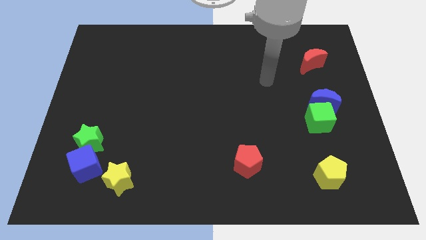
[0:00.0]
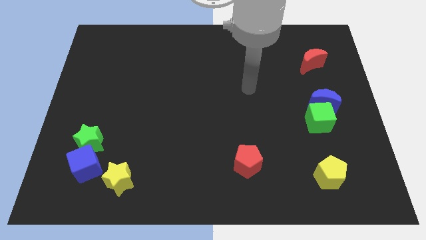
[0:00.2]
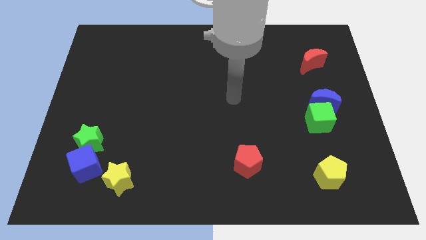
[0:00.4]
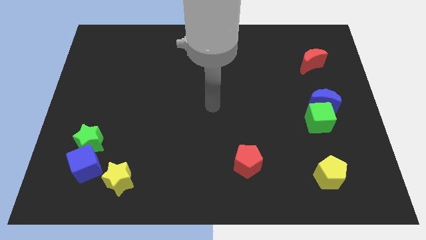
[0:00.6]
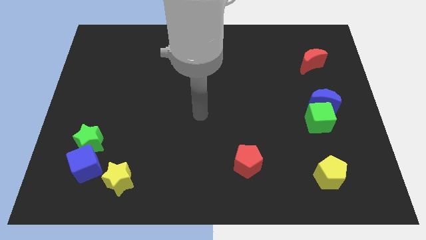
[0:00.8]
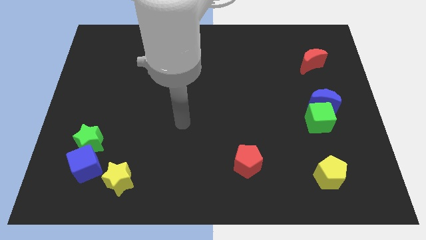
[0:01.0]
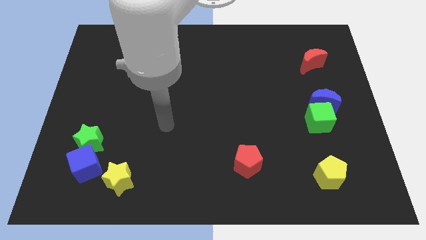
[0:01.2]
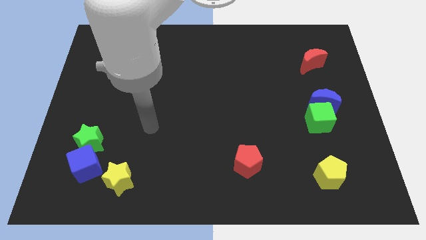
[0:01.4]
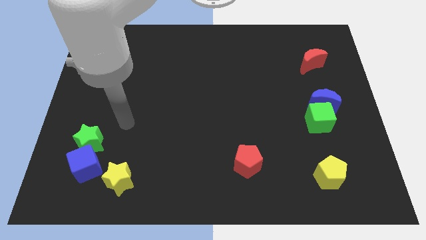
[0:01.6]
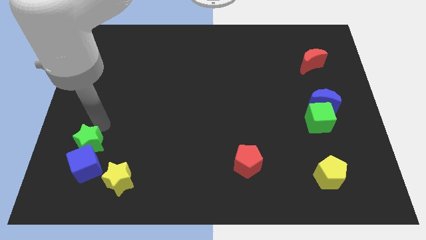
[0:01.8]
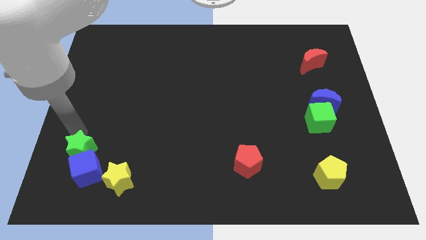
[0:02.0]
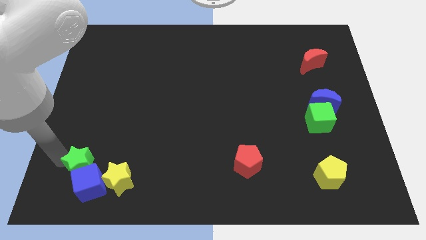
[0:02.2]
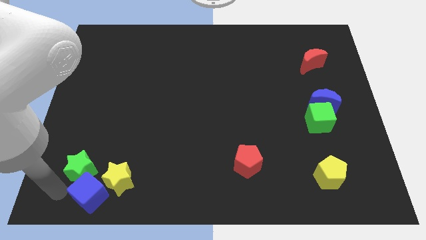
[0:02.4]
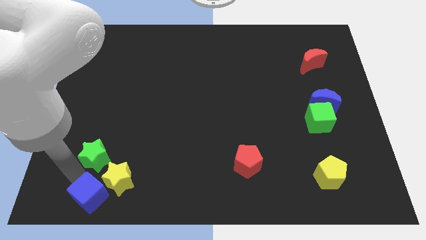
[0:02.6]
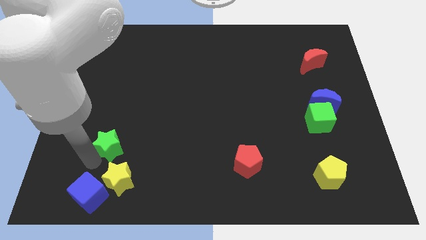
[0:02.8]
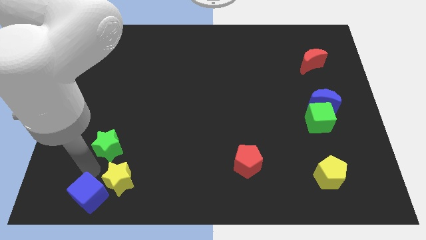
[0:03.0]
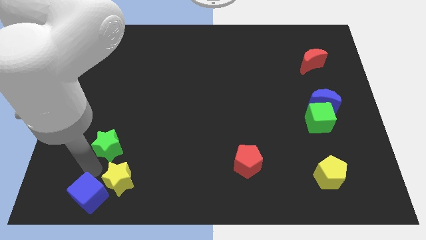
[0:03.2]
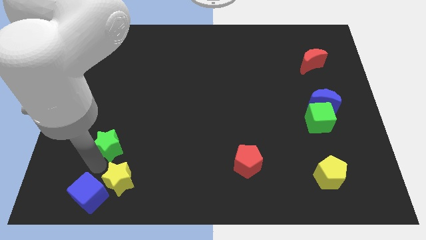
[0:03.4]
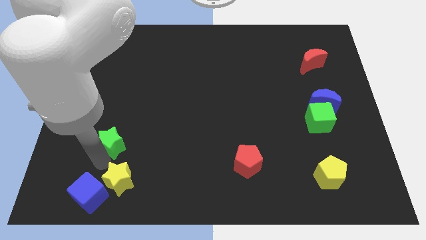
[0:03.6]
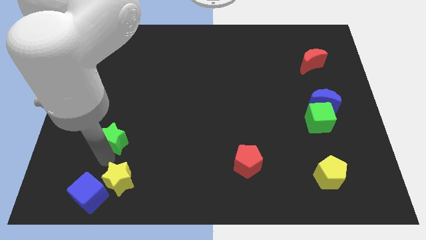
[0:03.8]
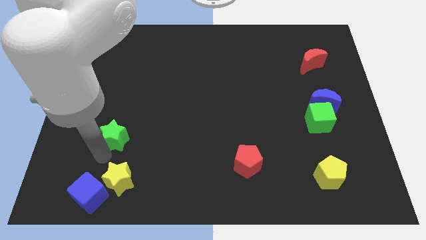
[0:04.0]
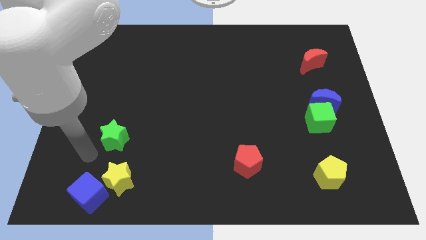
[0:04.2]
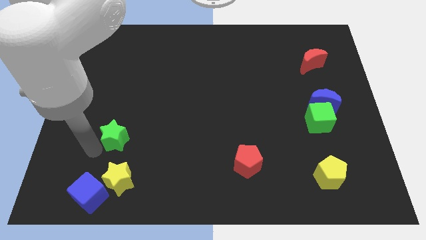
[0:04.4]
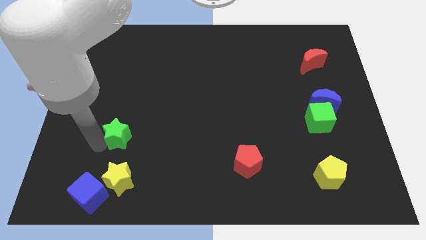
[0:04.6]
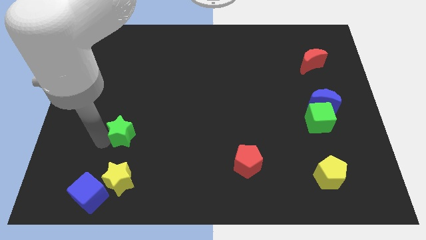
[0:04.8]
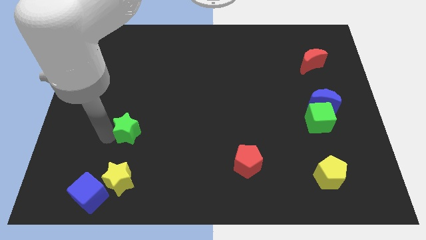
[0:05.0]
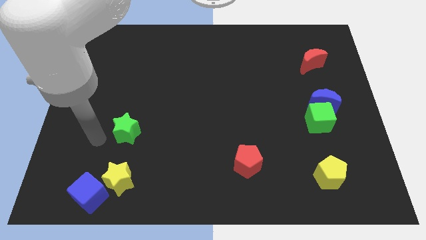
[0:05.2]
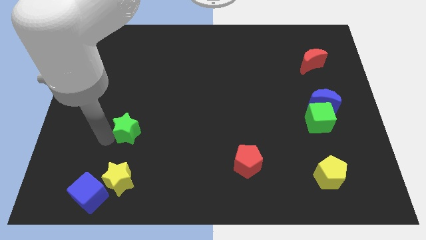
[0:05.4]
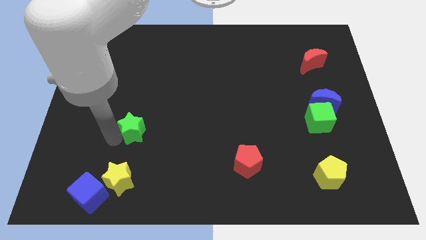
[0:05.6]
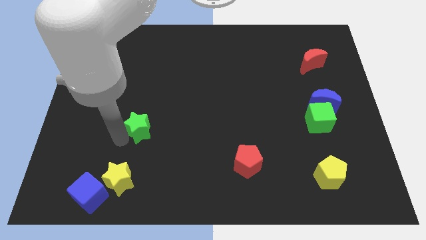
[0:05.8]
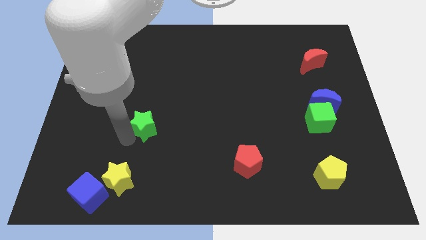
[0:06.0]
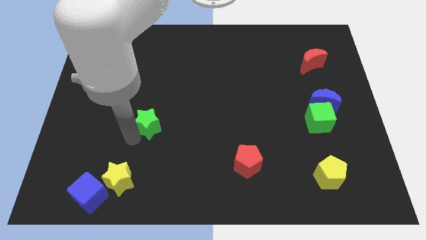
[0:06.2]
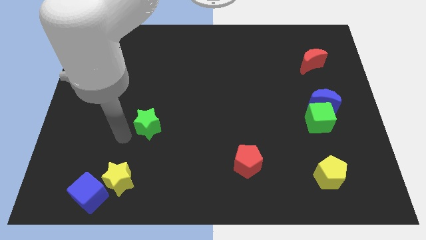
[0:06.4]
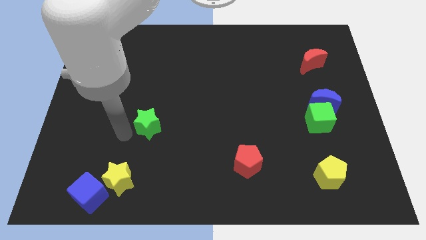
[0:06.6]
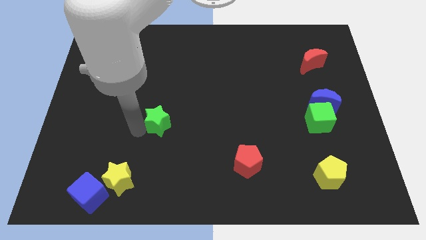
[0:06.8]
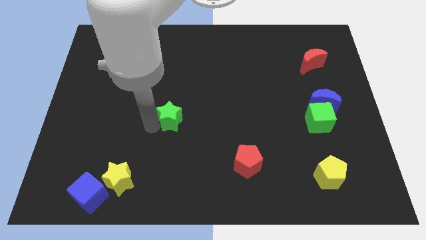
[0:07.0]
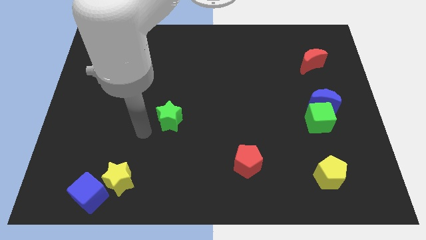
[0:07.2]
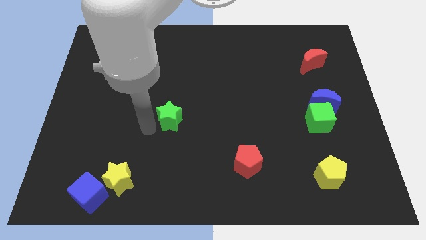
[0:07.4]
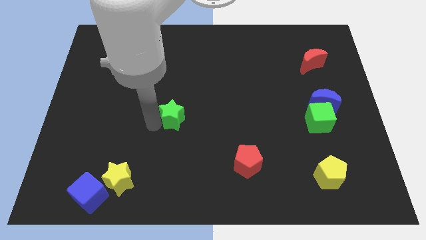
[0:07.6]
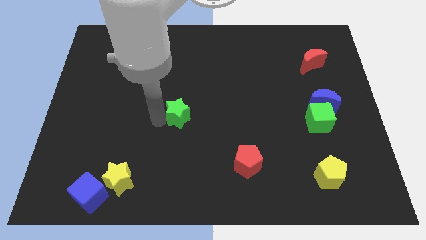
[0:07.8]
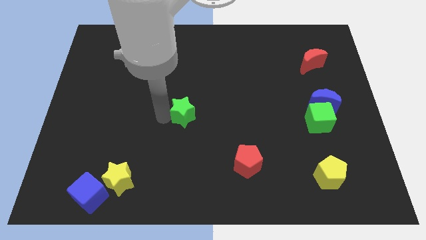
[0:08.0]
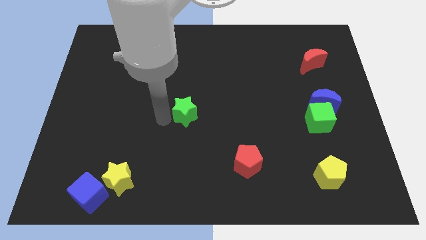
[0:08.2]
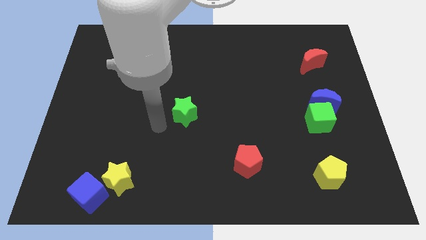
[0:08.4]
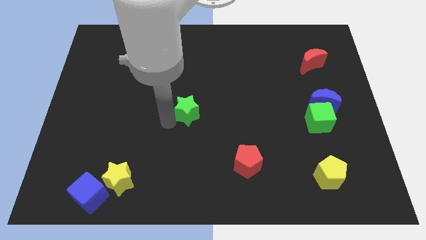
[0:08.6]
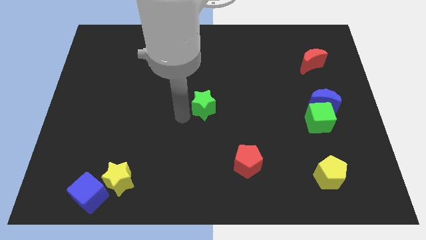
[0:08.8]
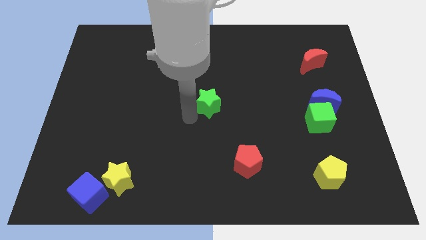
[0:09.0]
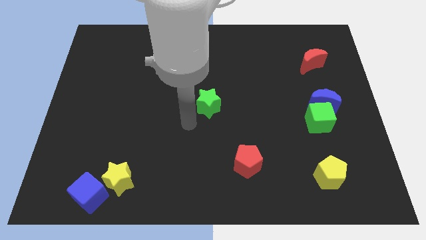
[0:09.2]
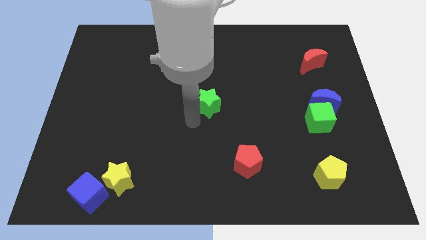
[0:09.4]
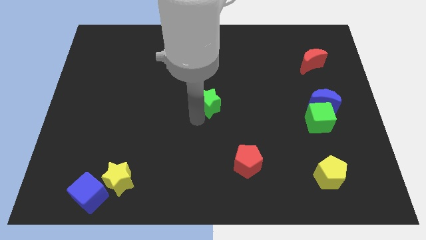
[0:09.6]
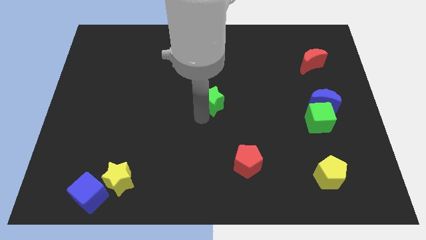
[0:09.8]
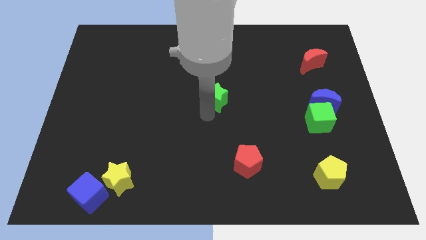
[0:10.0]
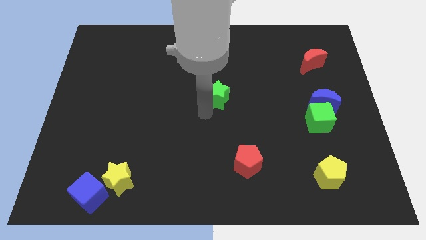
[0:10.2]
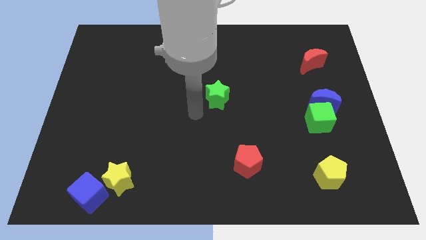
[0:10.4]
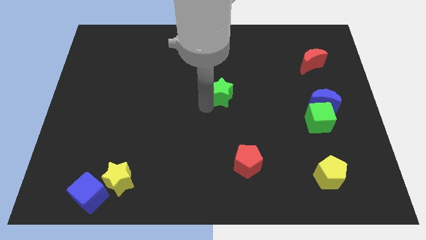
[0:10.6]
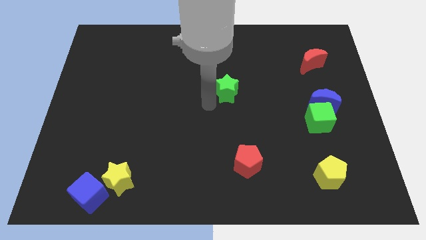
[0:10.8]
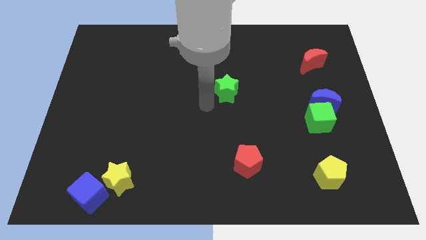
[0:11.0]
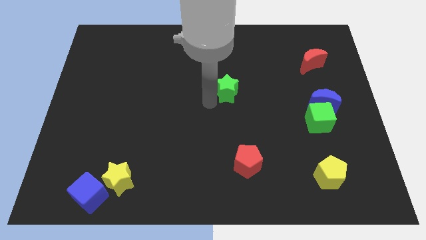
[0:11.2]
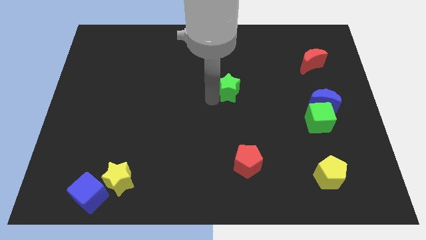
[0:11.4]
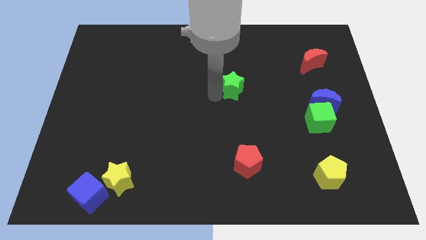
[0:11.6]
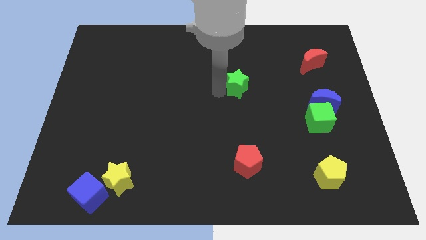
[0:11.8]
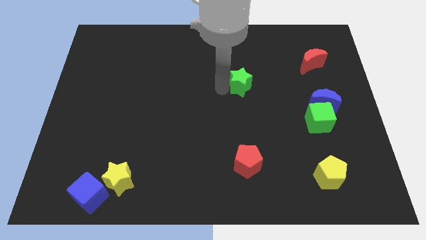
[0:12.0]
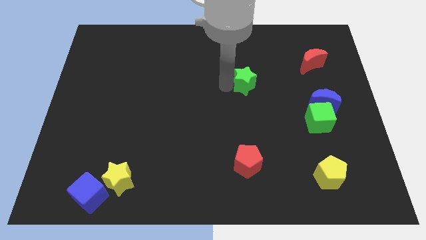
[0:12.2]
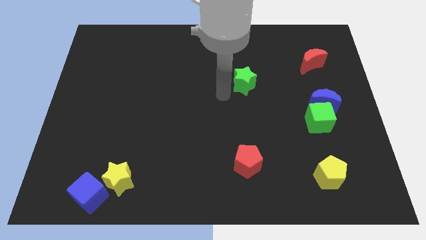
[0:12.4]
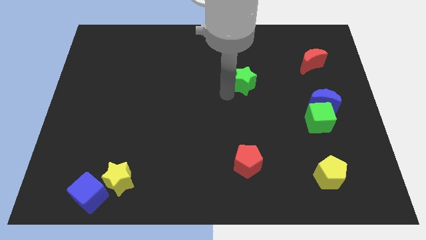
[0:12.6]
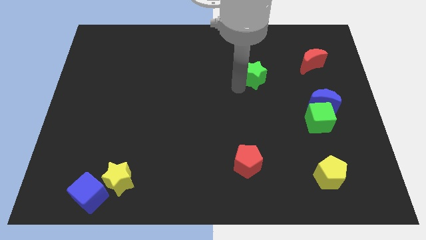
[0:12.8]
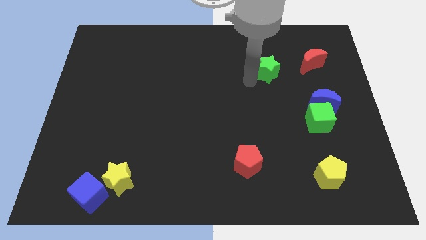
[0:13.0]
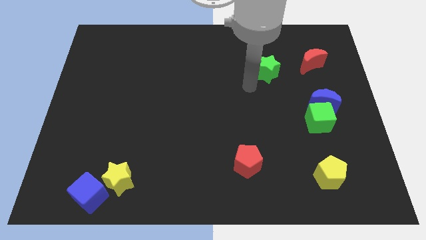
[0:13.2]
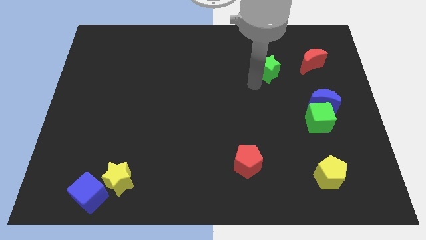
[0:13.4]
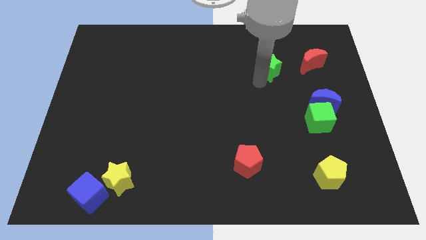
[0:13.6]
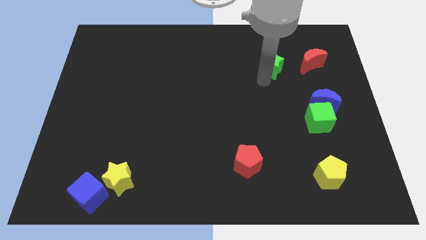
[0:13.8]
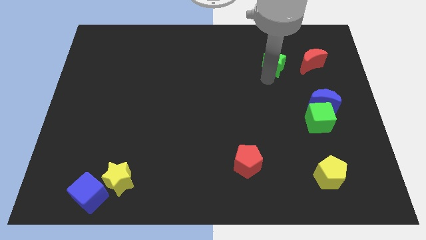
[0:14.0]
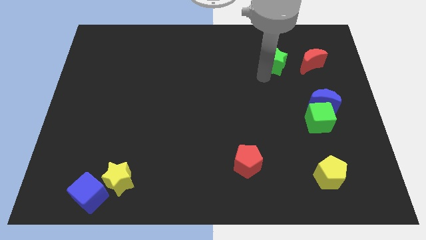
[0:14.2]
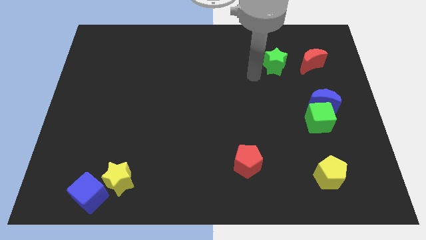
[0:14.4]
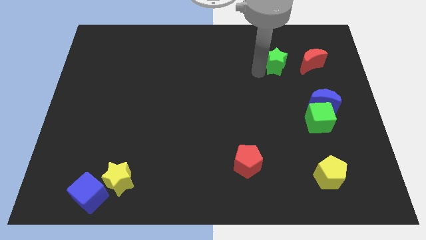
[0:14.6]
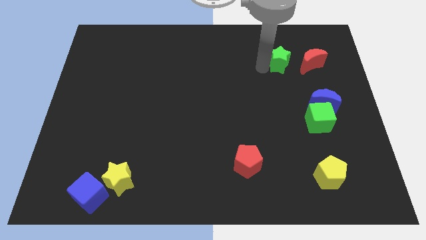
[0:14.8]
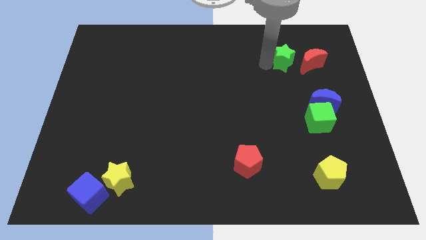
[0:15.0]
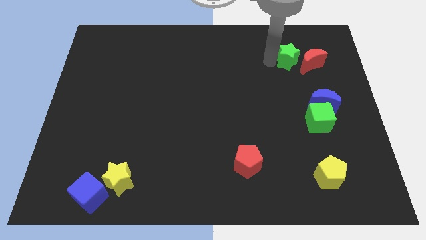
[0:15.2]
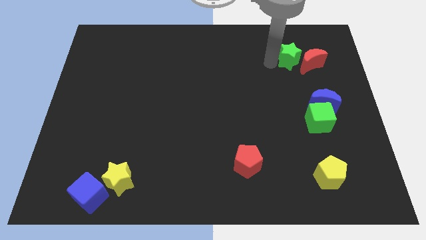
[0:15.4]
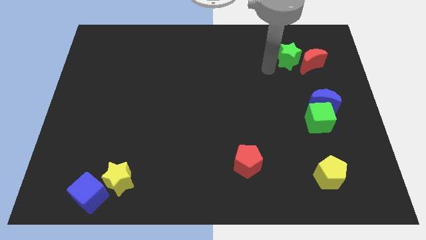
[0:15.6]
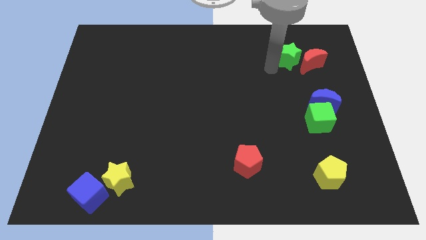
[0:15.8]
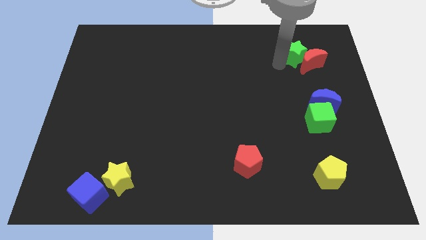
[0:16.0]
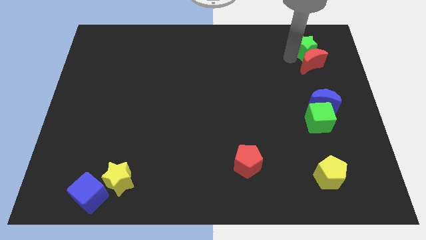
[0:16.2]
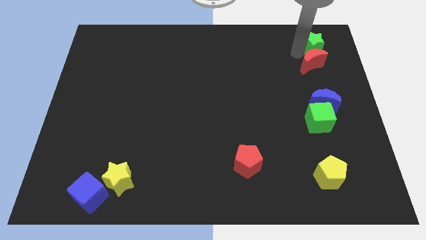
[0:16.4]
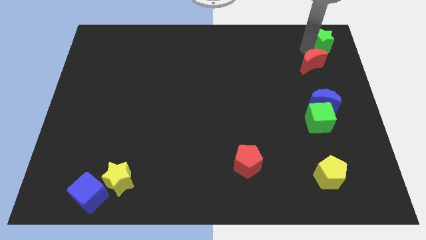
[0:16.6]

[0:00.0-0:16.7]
move the green star to the top right
